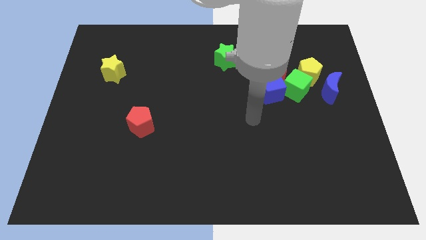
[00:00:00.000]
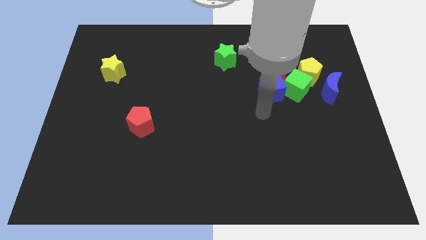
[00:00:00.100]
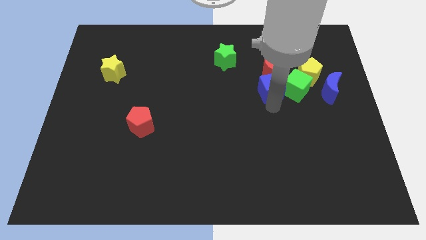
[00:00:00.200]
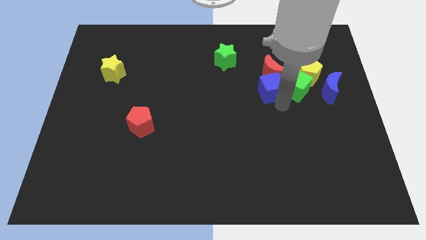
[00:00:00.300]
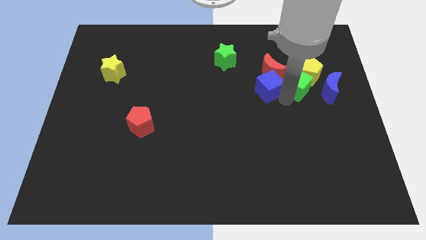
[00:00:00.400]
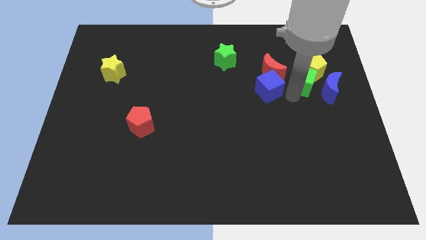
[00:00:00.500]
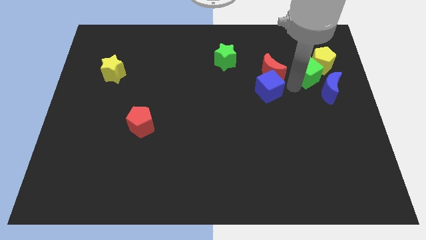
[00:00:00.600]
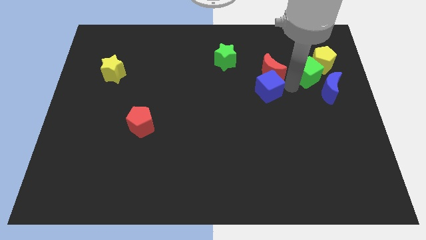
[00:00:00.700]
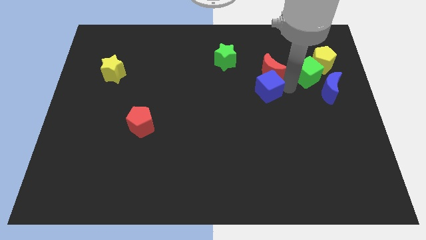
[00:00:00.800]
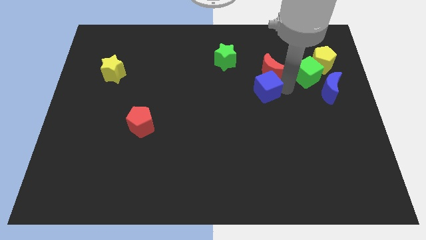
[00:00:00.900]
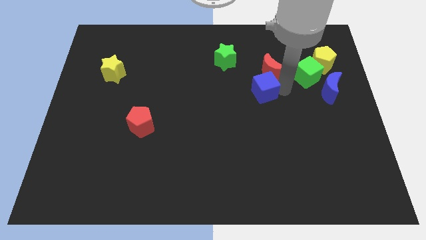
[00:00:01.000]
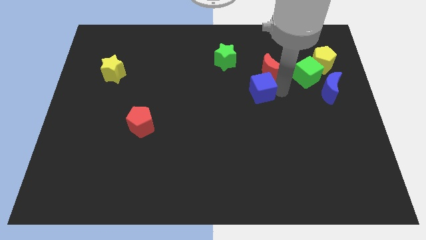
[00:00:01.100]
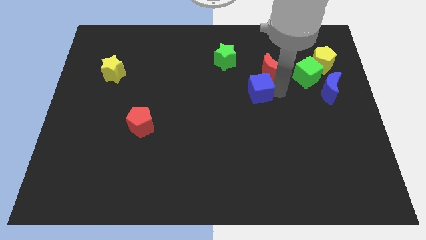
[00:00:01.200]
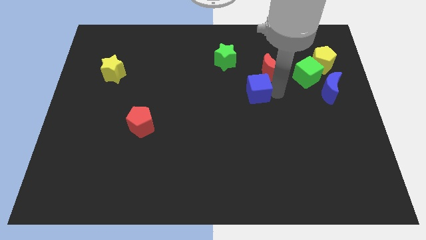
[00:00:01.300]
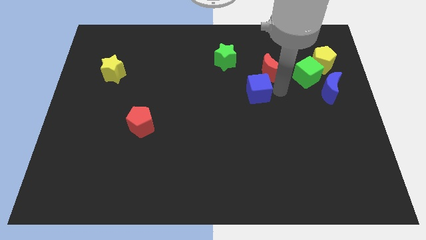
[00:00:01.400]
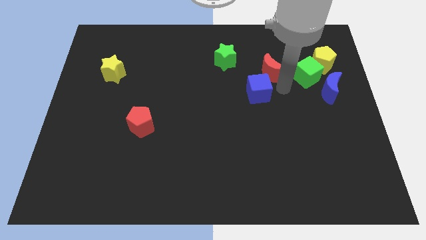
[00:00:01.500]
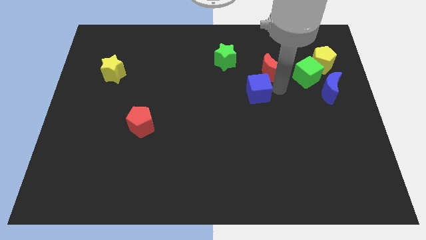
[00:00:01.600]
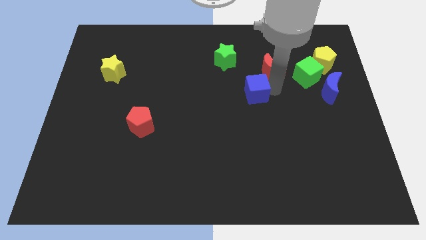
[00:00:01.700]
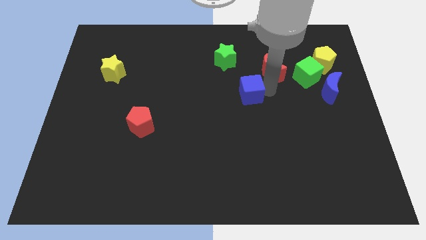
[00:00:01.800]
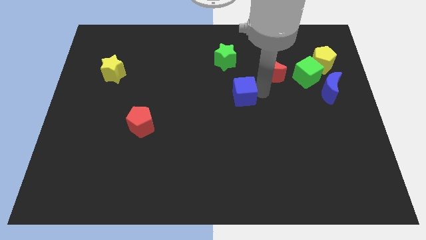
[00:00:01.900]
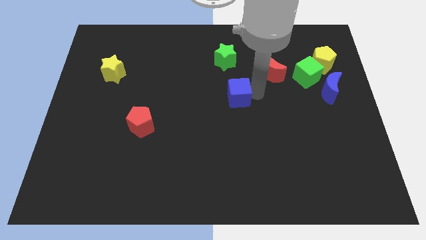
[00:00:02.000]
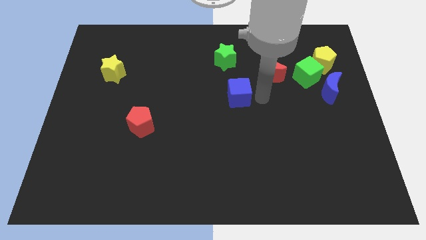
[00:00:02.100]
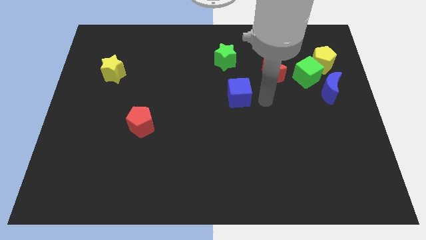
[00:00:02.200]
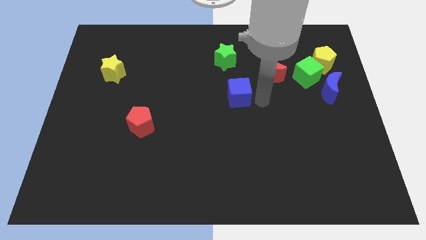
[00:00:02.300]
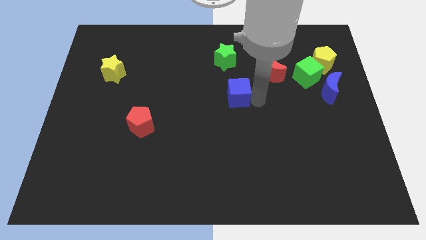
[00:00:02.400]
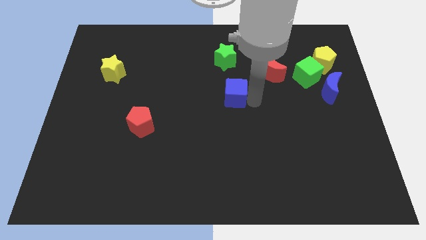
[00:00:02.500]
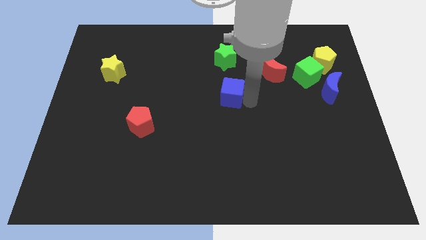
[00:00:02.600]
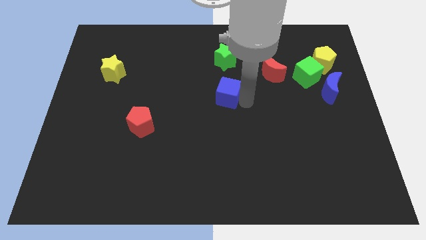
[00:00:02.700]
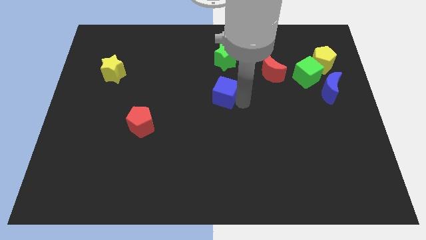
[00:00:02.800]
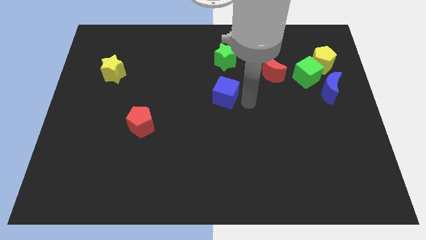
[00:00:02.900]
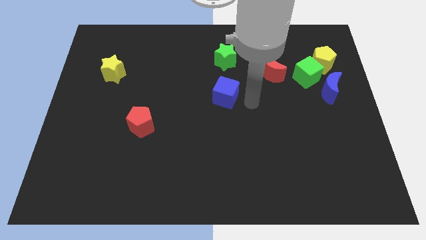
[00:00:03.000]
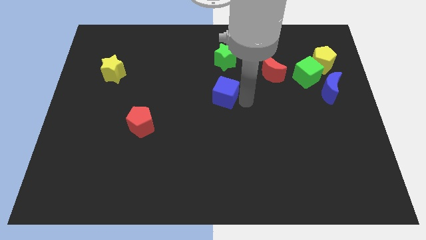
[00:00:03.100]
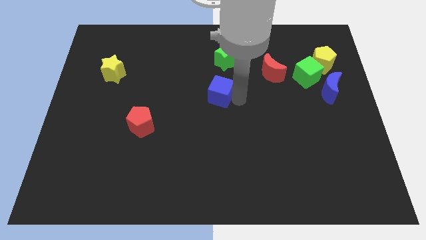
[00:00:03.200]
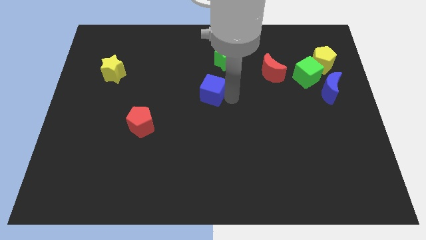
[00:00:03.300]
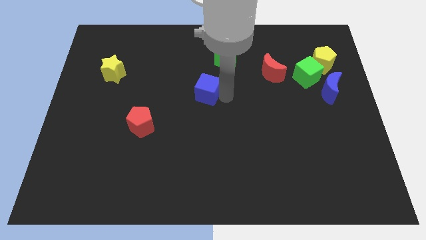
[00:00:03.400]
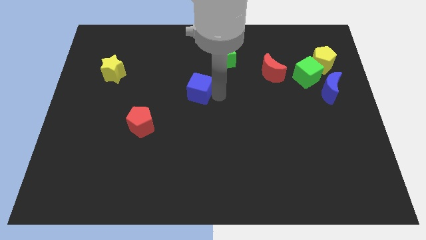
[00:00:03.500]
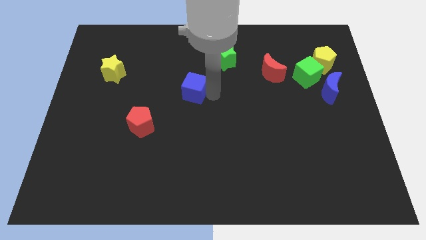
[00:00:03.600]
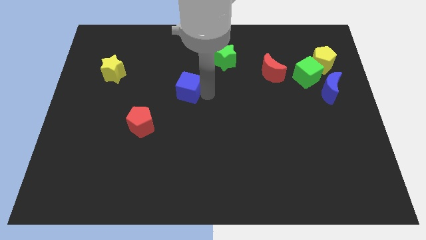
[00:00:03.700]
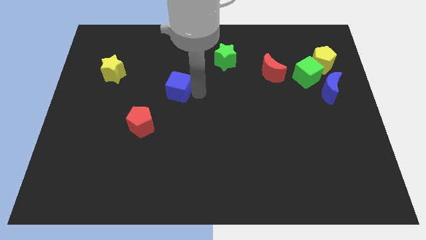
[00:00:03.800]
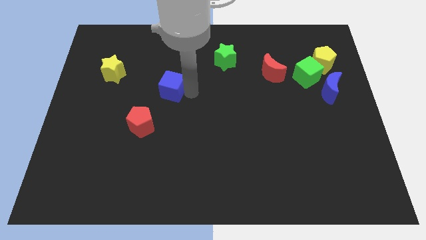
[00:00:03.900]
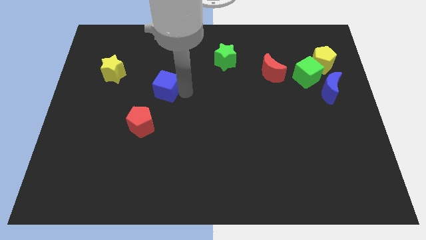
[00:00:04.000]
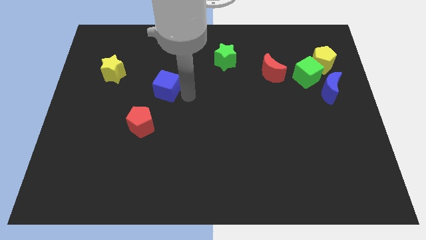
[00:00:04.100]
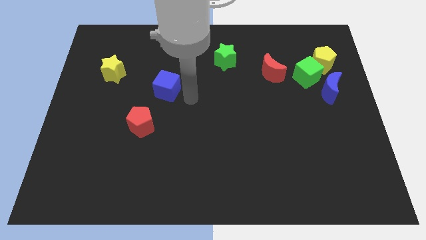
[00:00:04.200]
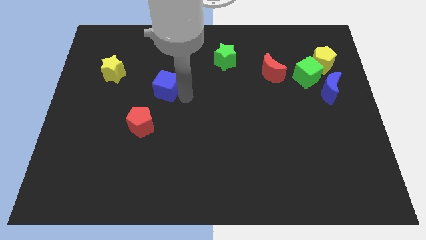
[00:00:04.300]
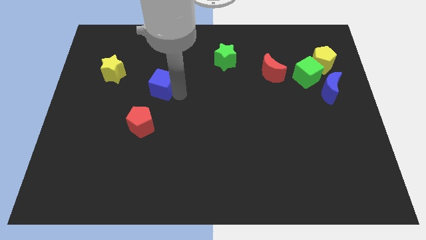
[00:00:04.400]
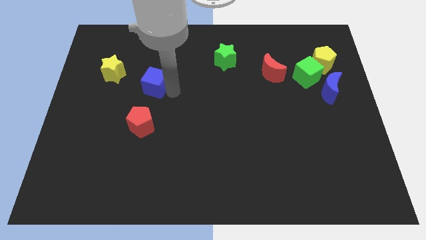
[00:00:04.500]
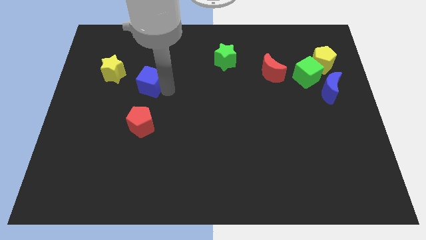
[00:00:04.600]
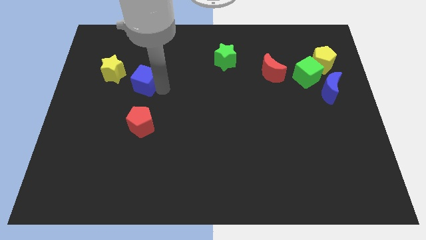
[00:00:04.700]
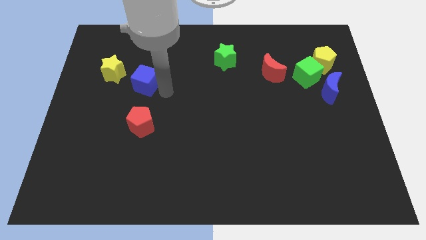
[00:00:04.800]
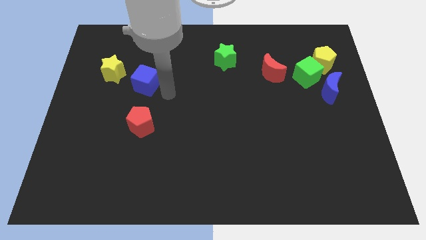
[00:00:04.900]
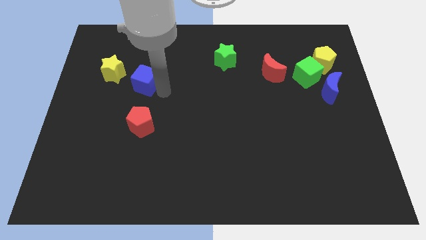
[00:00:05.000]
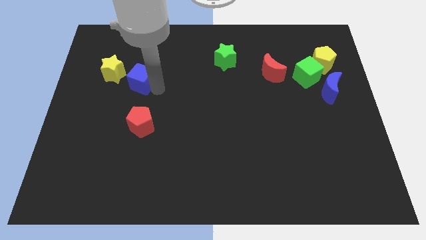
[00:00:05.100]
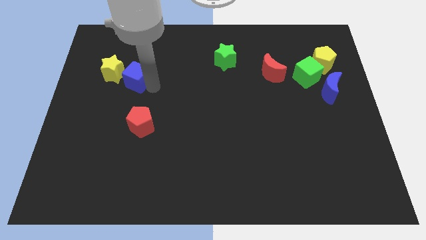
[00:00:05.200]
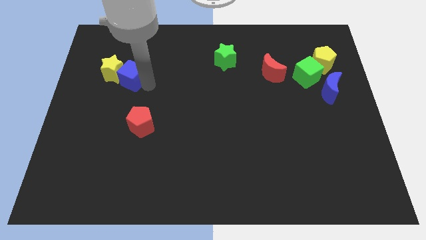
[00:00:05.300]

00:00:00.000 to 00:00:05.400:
push the blue cube close to the yellow star

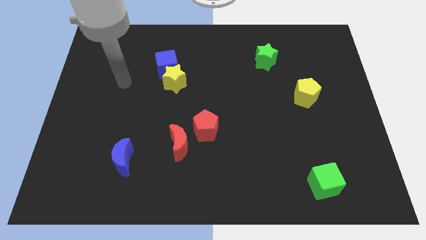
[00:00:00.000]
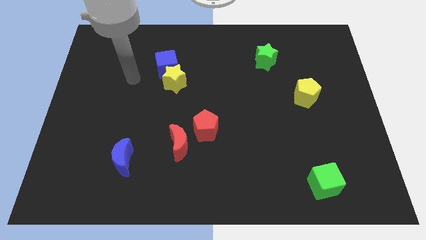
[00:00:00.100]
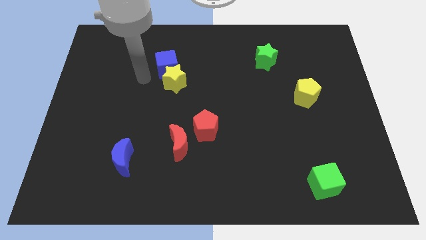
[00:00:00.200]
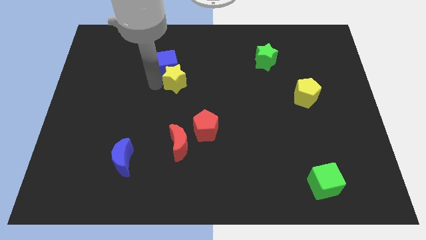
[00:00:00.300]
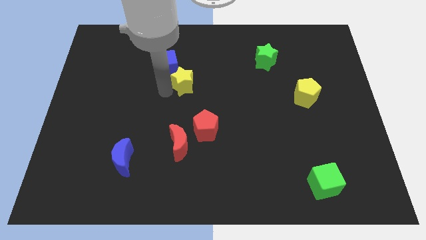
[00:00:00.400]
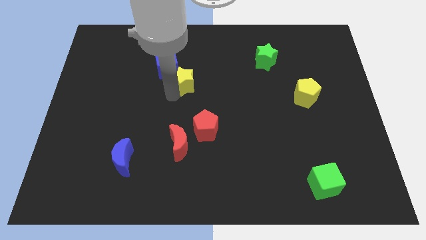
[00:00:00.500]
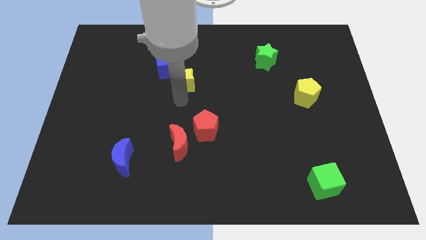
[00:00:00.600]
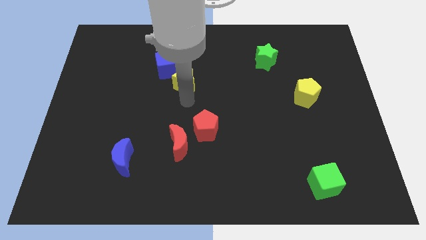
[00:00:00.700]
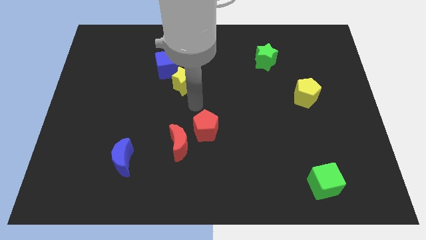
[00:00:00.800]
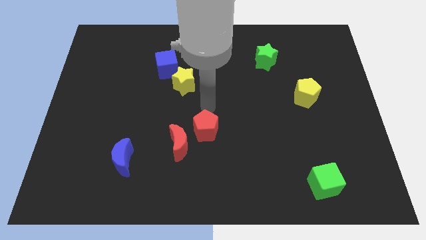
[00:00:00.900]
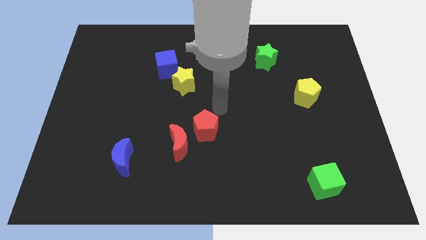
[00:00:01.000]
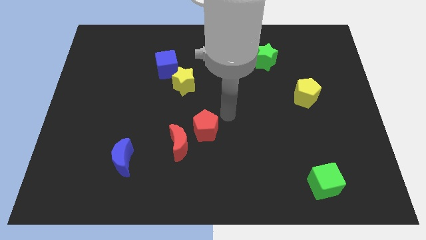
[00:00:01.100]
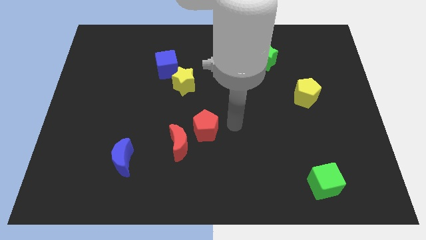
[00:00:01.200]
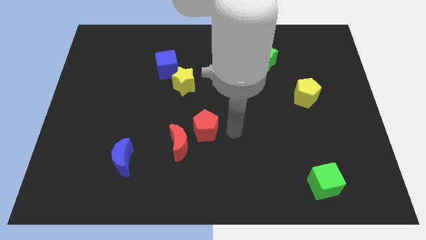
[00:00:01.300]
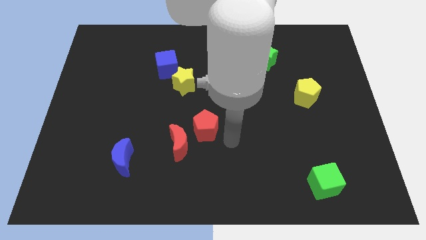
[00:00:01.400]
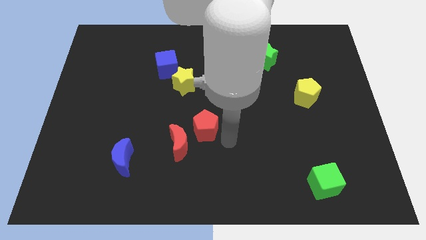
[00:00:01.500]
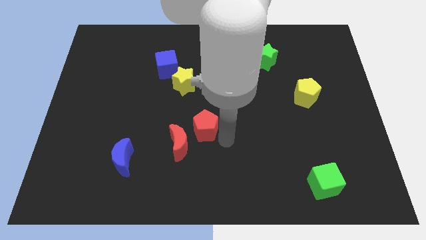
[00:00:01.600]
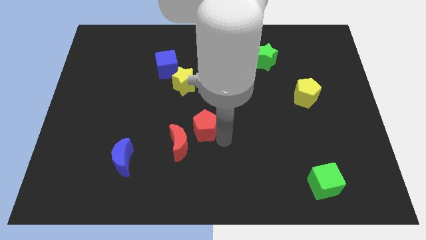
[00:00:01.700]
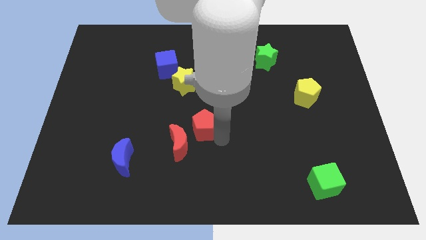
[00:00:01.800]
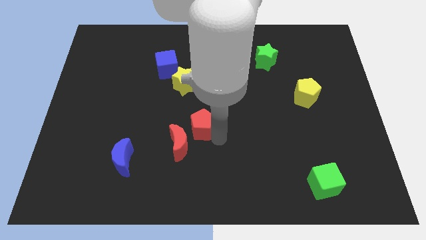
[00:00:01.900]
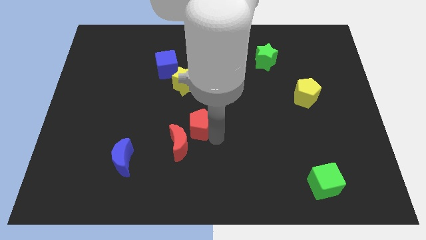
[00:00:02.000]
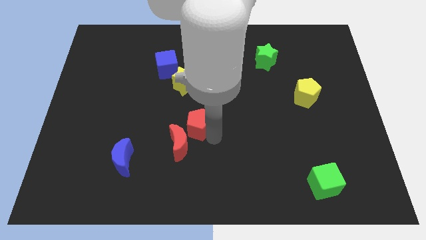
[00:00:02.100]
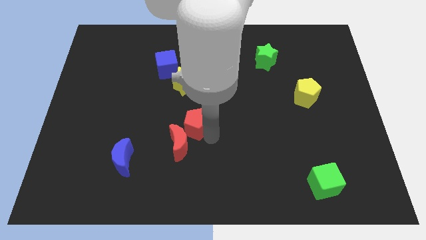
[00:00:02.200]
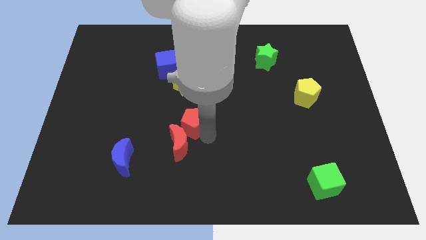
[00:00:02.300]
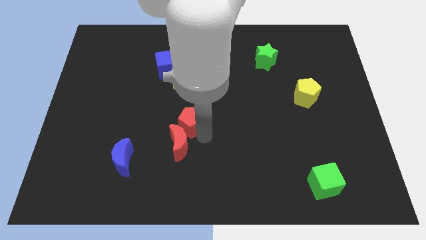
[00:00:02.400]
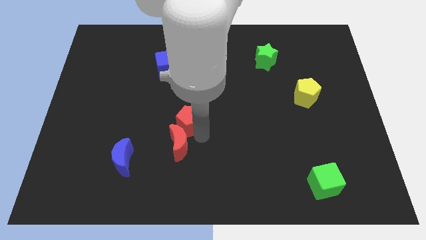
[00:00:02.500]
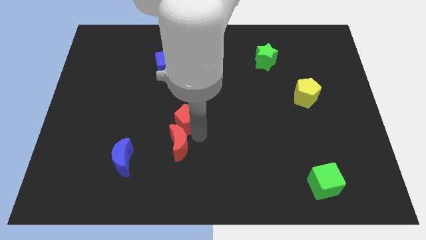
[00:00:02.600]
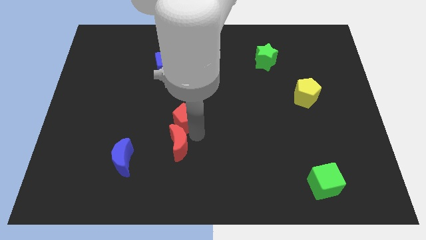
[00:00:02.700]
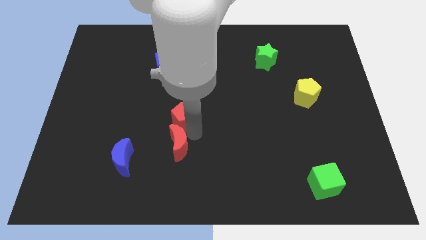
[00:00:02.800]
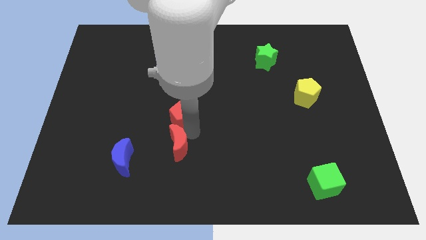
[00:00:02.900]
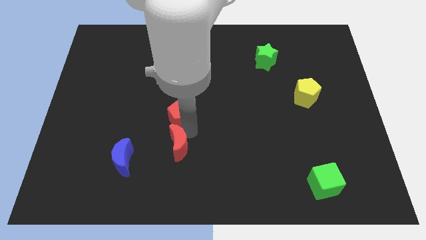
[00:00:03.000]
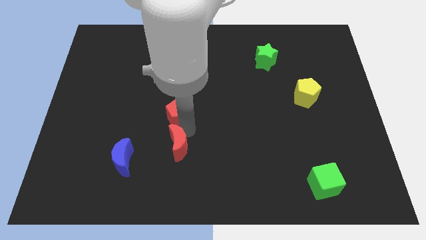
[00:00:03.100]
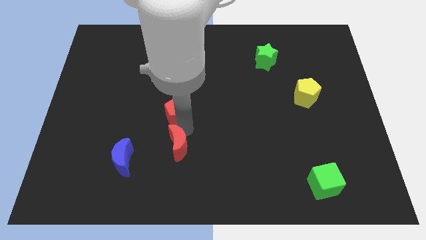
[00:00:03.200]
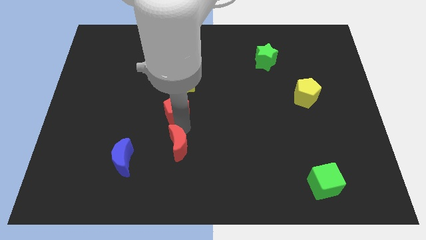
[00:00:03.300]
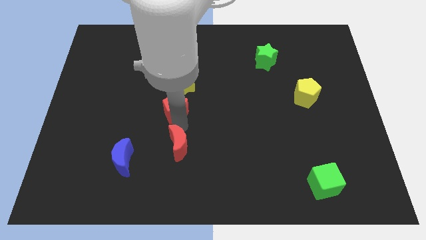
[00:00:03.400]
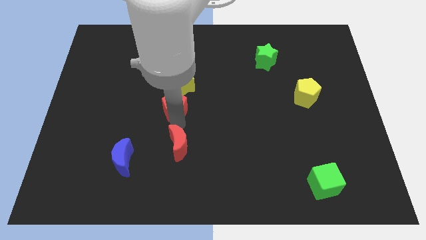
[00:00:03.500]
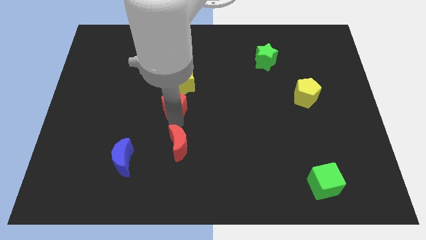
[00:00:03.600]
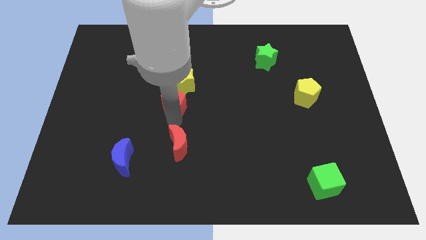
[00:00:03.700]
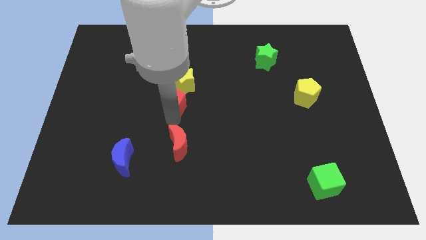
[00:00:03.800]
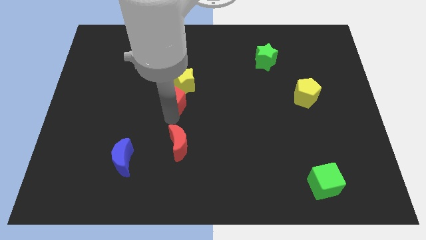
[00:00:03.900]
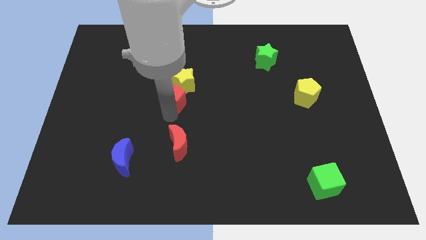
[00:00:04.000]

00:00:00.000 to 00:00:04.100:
slide the red pentagon to the yellow star
